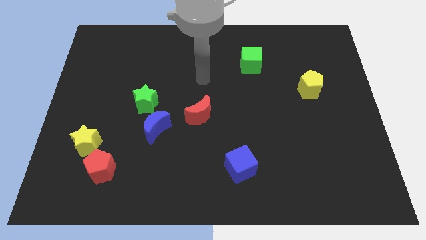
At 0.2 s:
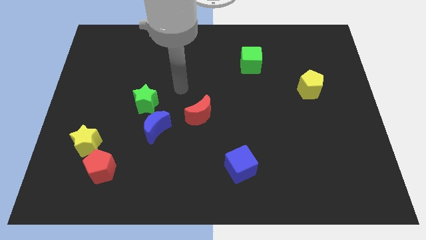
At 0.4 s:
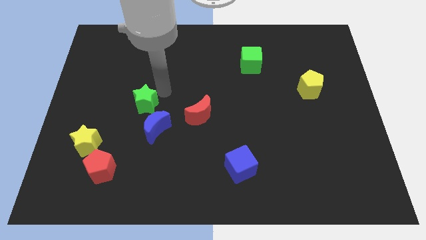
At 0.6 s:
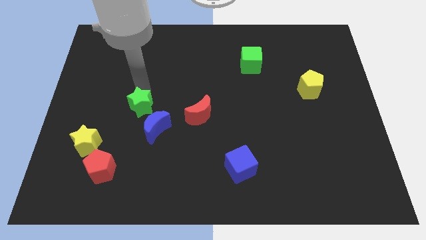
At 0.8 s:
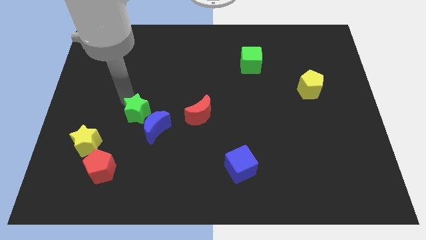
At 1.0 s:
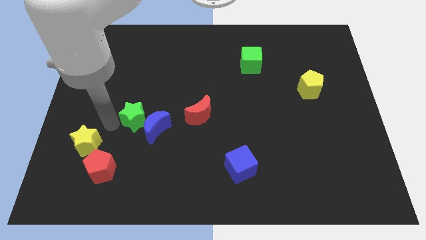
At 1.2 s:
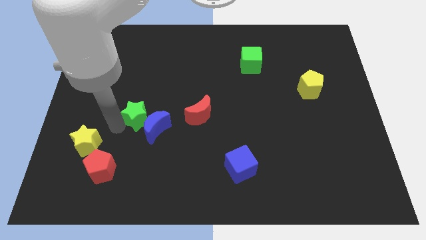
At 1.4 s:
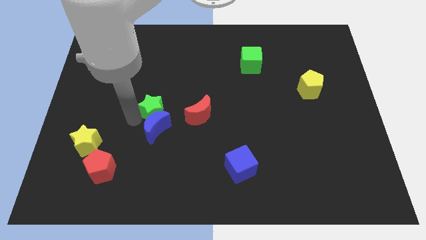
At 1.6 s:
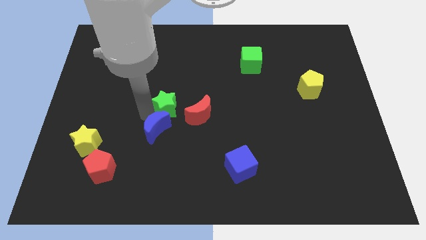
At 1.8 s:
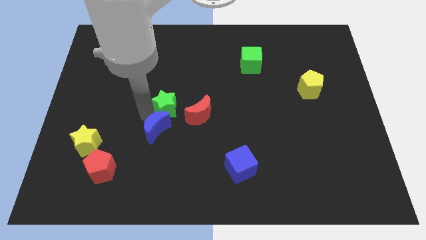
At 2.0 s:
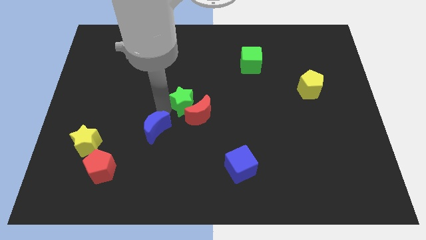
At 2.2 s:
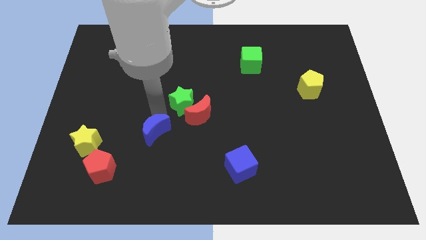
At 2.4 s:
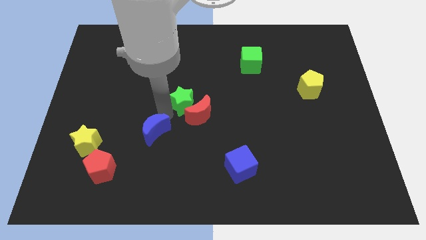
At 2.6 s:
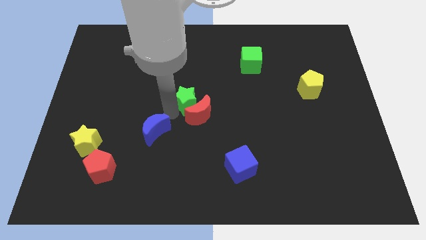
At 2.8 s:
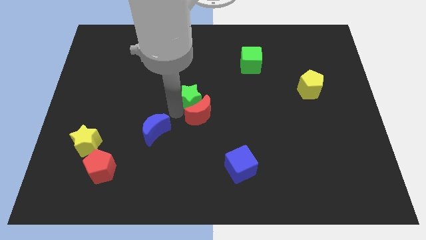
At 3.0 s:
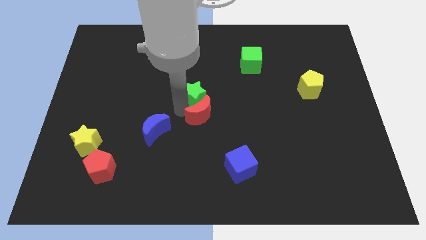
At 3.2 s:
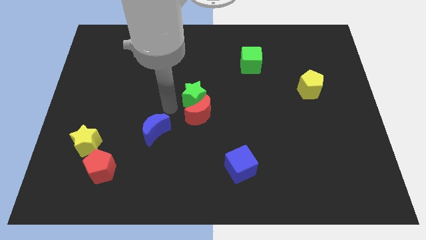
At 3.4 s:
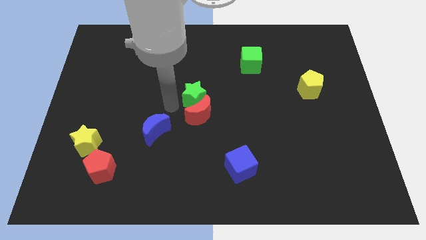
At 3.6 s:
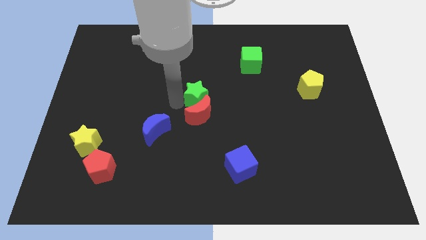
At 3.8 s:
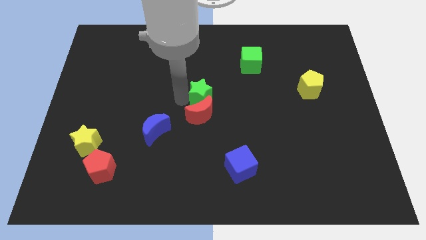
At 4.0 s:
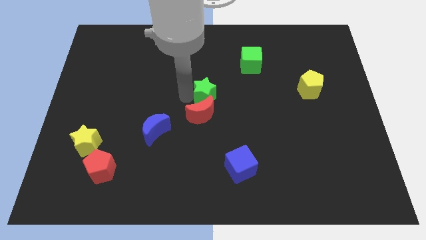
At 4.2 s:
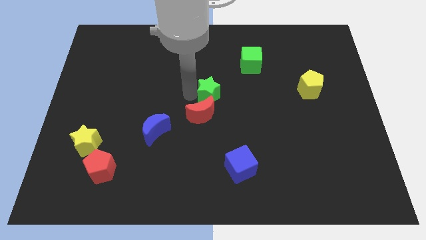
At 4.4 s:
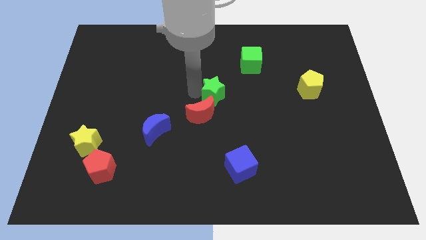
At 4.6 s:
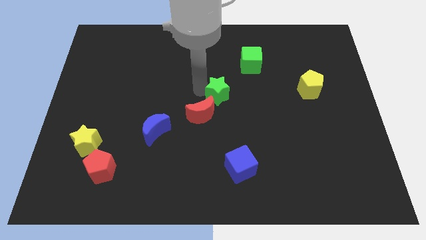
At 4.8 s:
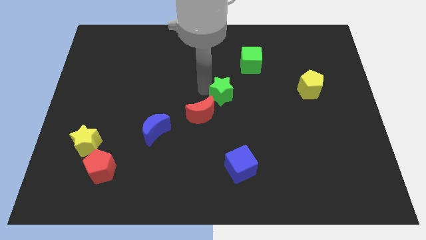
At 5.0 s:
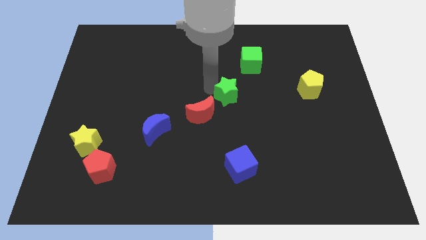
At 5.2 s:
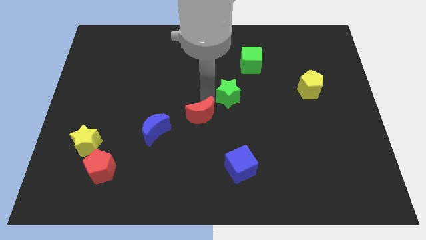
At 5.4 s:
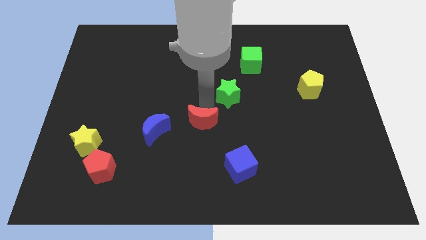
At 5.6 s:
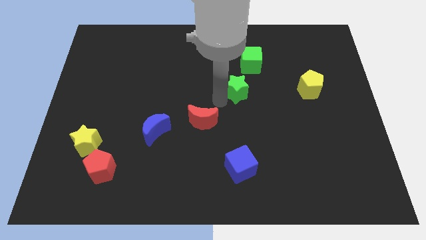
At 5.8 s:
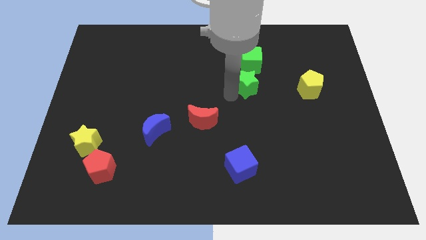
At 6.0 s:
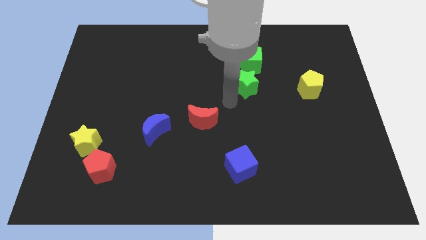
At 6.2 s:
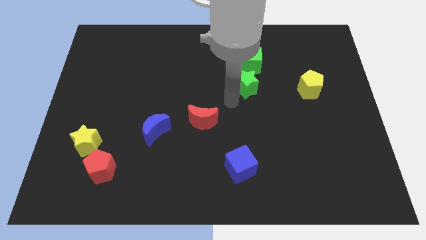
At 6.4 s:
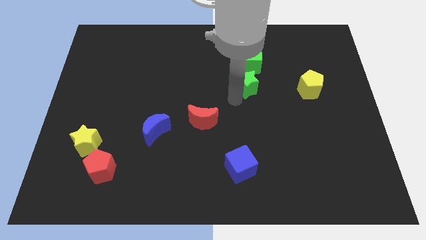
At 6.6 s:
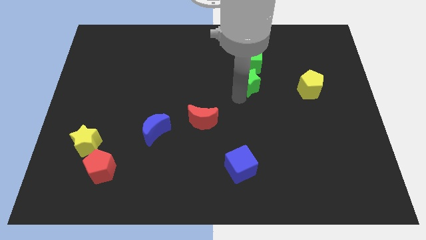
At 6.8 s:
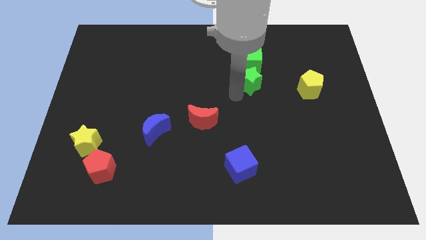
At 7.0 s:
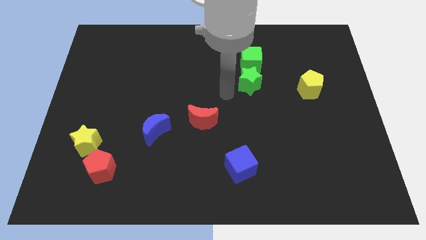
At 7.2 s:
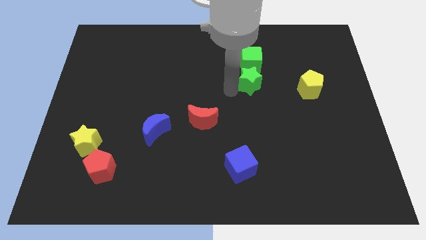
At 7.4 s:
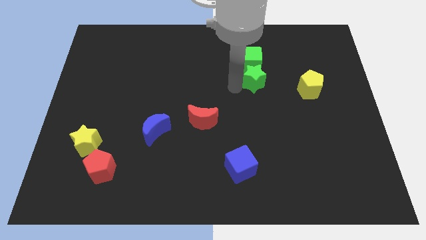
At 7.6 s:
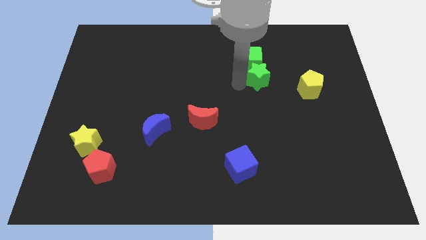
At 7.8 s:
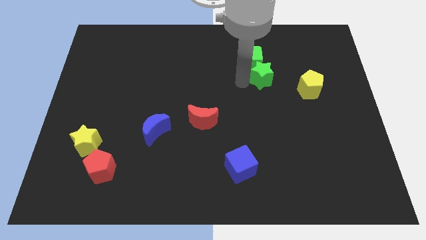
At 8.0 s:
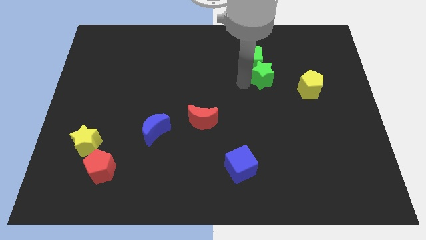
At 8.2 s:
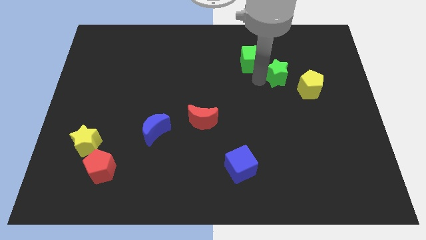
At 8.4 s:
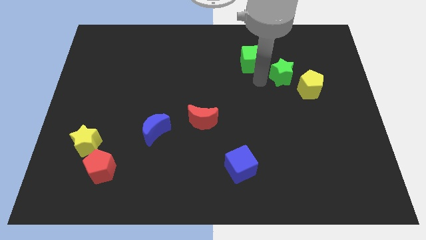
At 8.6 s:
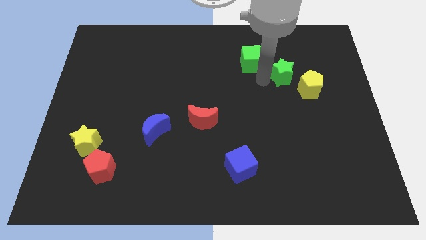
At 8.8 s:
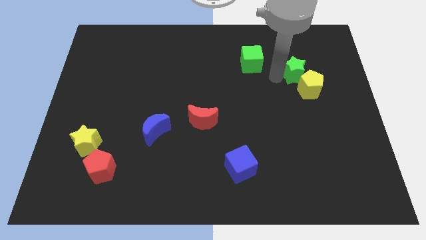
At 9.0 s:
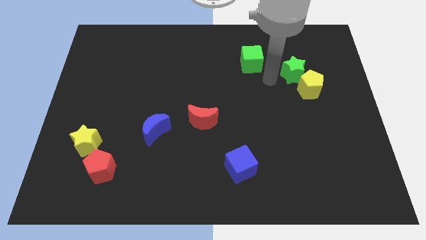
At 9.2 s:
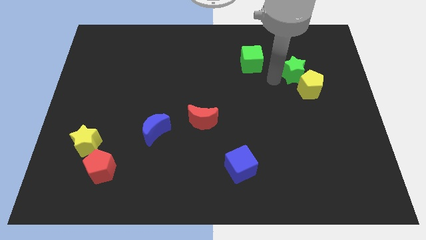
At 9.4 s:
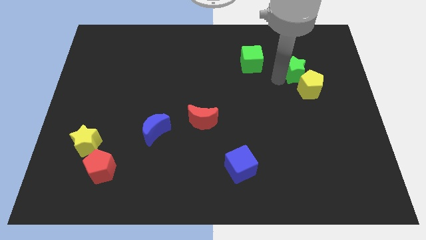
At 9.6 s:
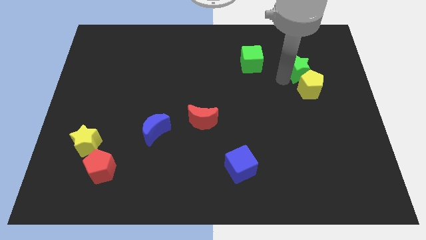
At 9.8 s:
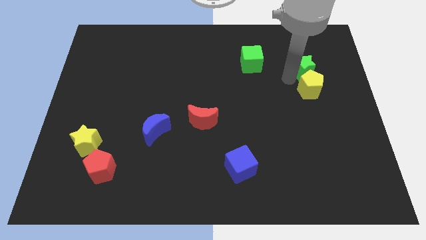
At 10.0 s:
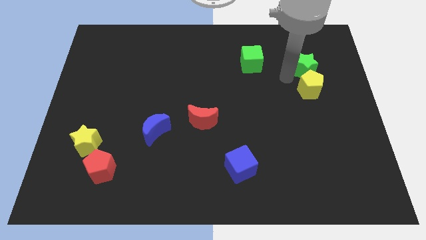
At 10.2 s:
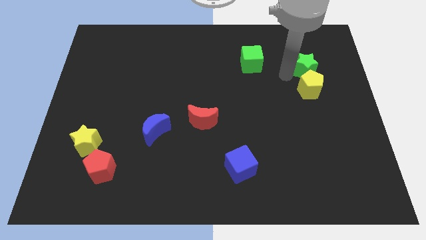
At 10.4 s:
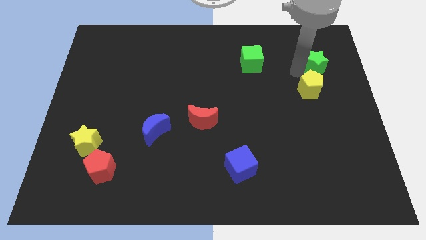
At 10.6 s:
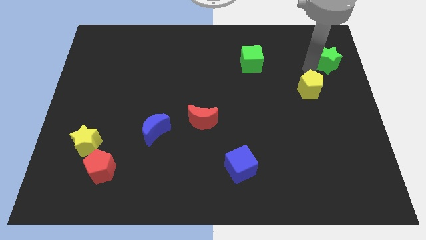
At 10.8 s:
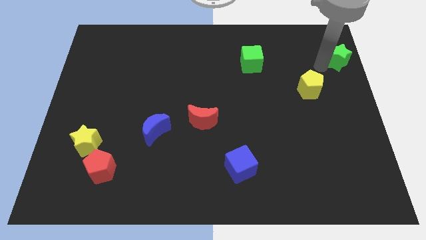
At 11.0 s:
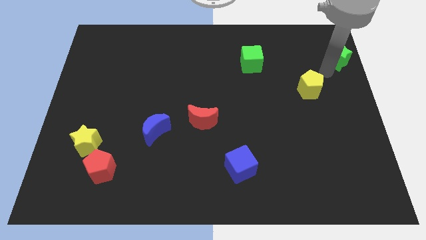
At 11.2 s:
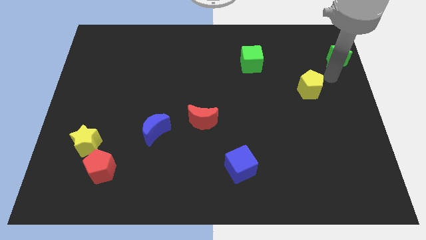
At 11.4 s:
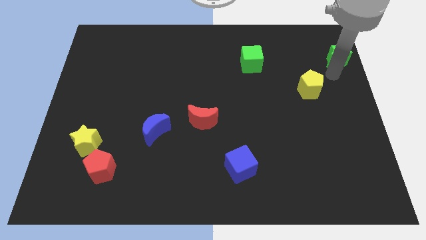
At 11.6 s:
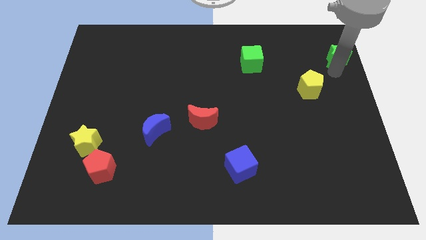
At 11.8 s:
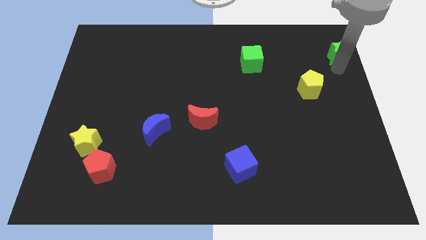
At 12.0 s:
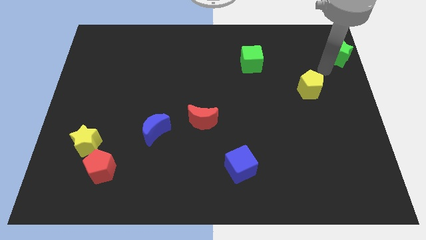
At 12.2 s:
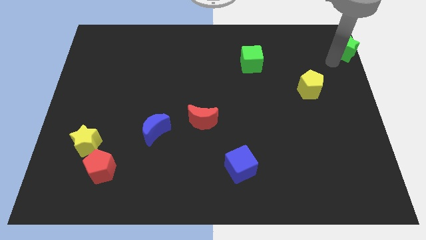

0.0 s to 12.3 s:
put the green star to the top right corner

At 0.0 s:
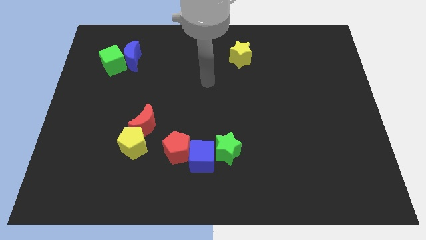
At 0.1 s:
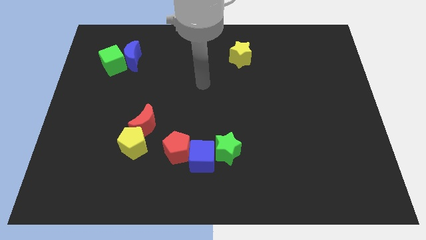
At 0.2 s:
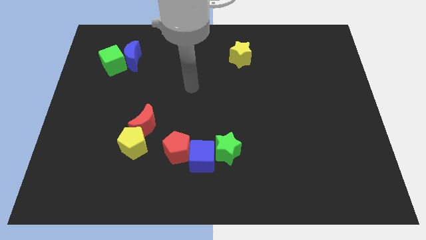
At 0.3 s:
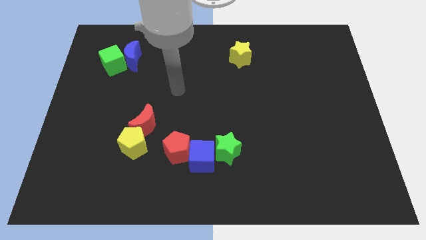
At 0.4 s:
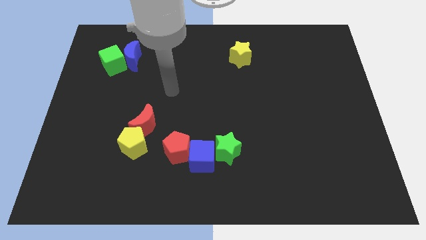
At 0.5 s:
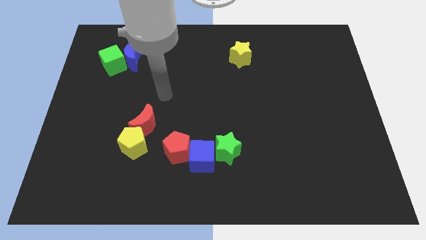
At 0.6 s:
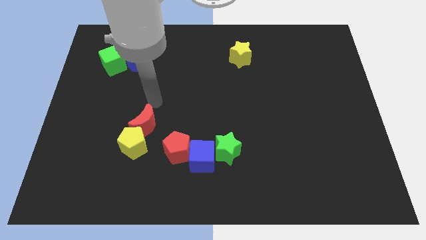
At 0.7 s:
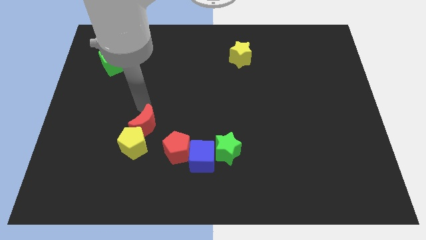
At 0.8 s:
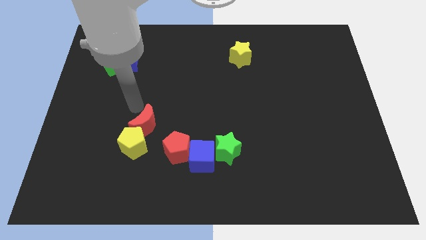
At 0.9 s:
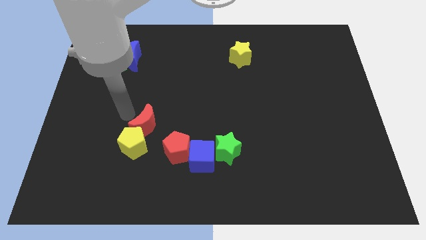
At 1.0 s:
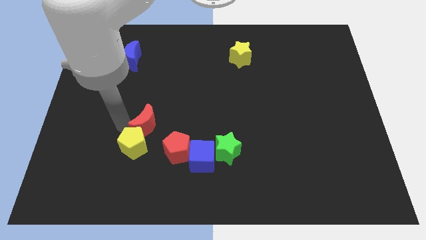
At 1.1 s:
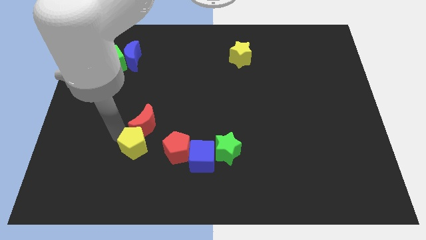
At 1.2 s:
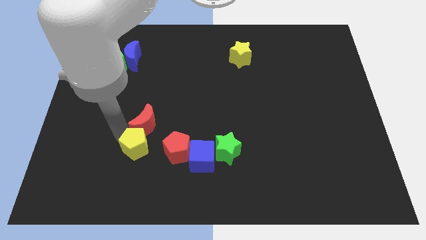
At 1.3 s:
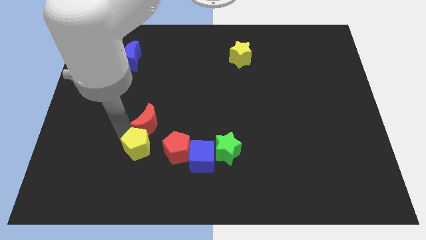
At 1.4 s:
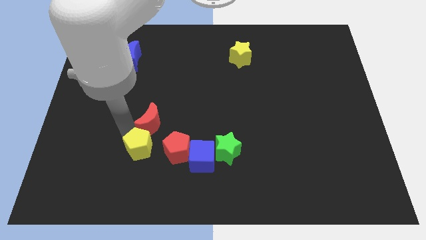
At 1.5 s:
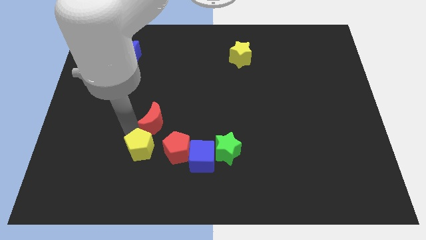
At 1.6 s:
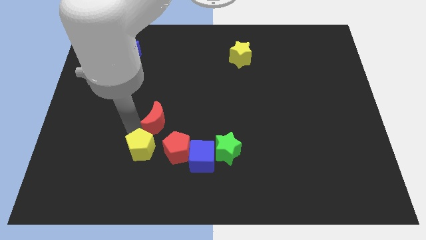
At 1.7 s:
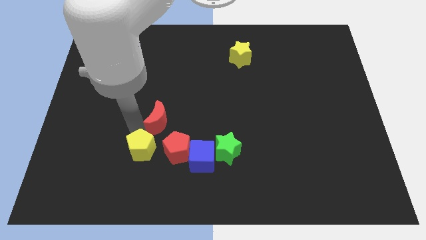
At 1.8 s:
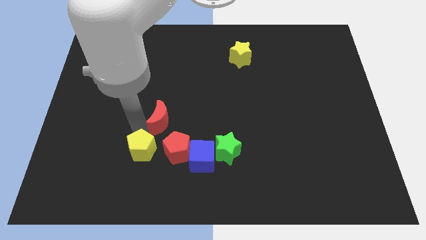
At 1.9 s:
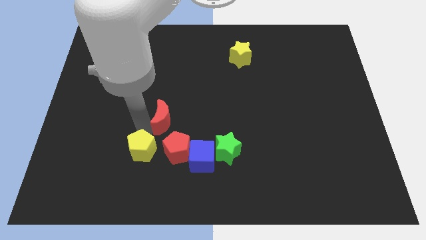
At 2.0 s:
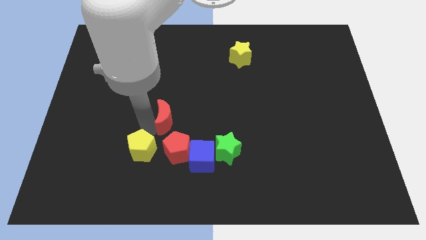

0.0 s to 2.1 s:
slide the red moon to the middle of the board
